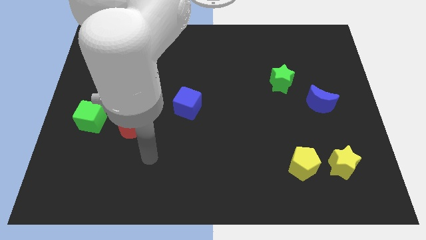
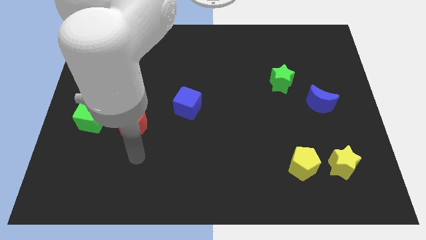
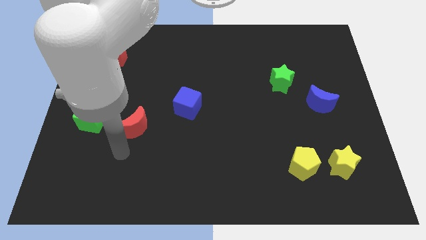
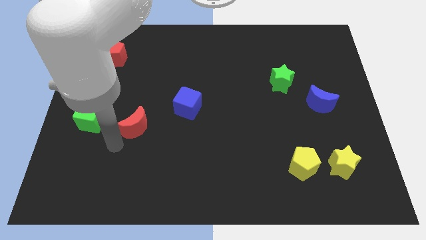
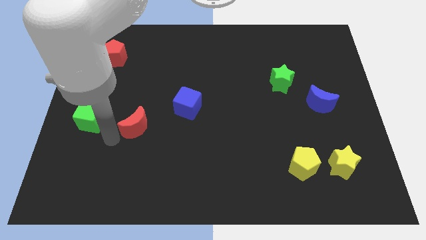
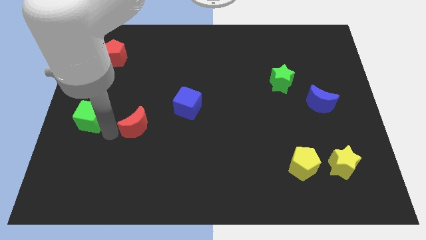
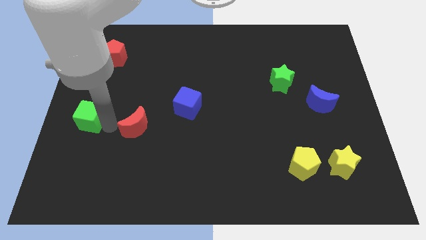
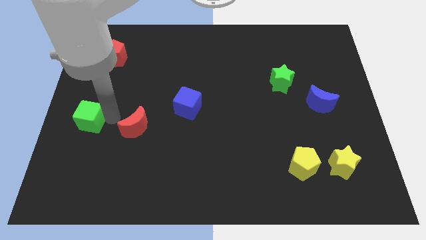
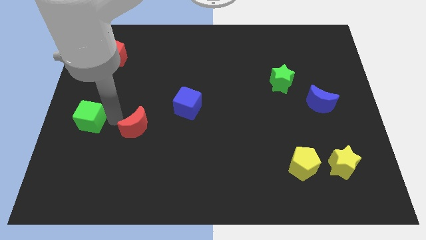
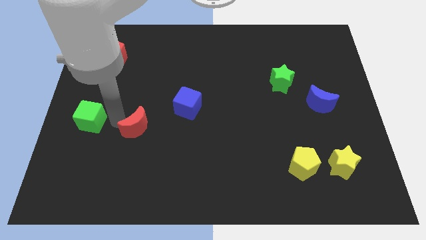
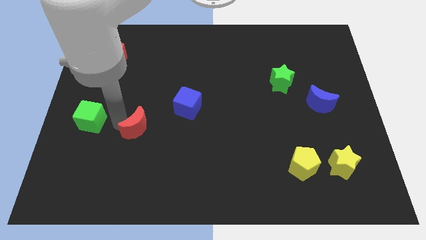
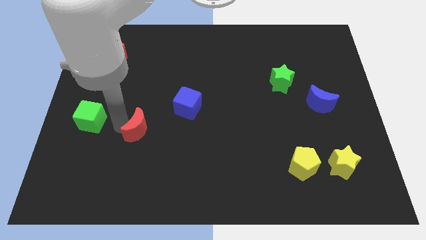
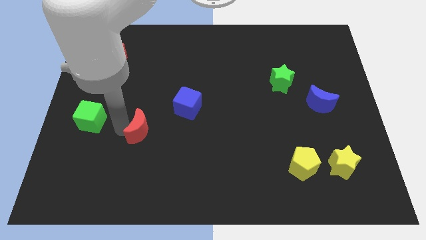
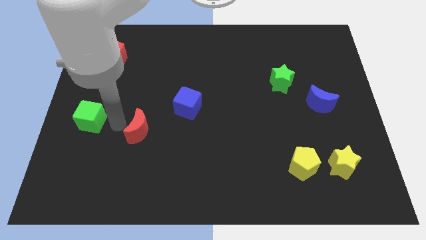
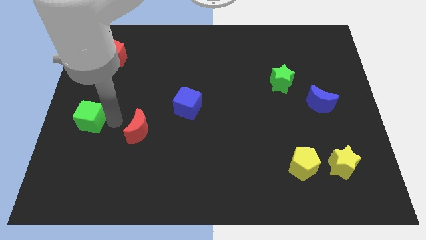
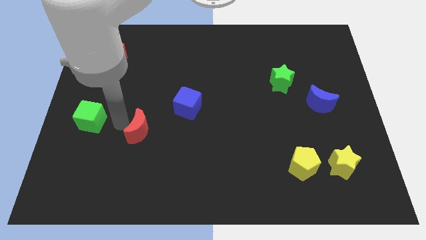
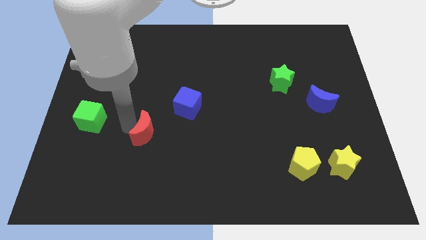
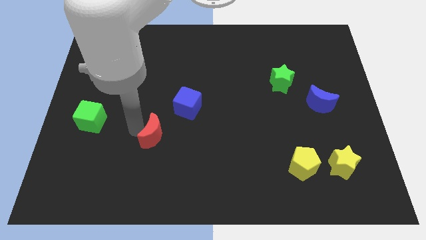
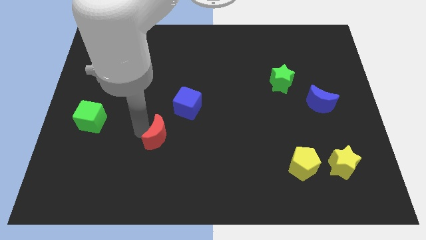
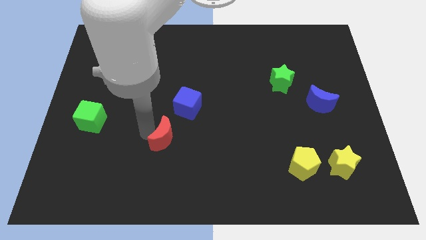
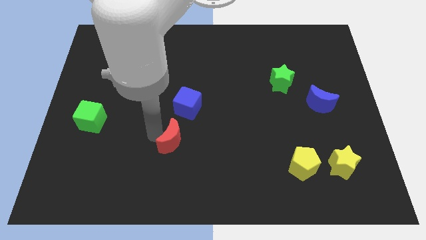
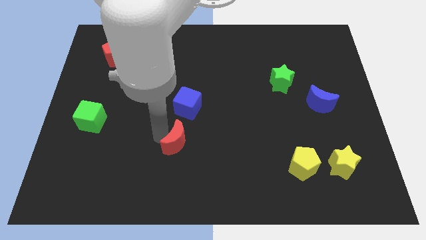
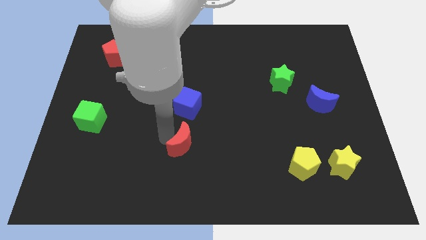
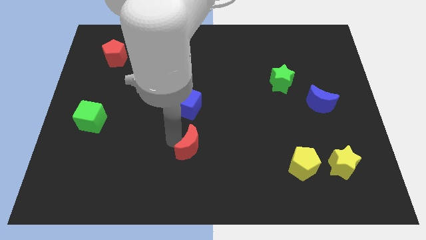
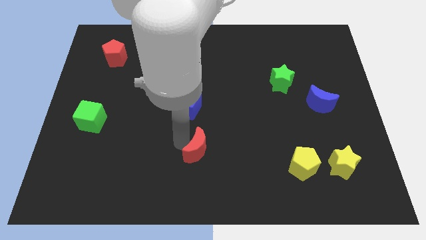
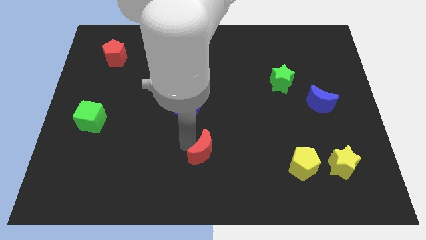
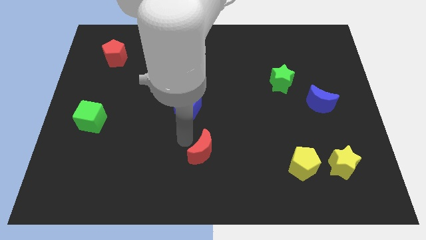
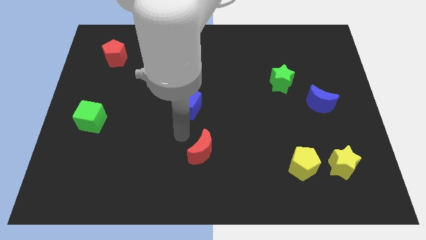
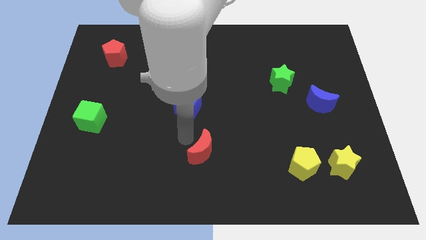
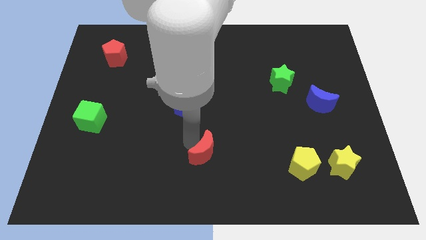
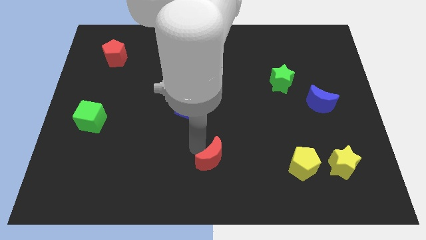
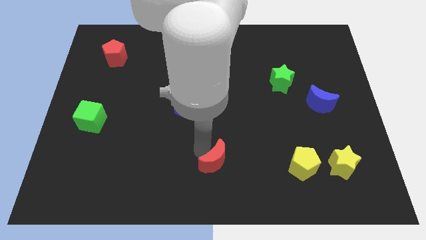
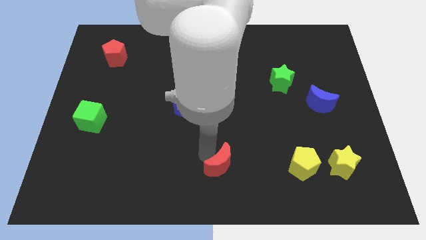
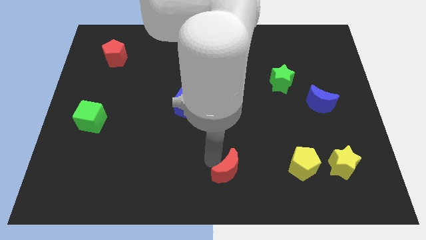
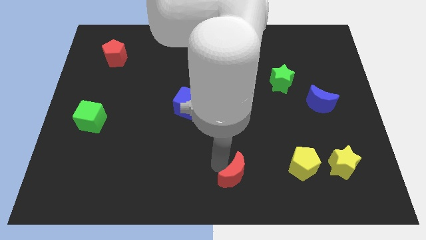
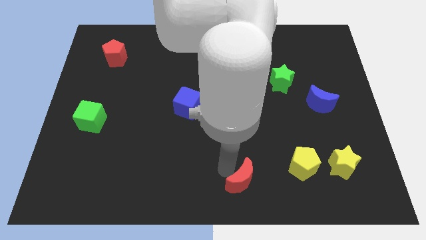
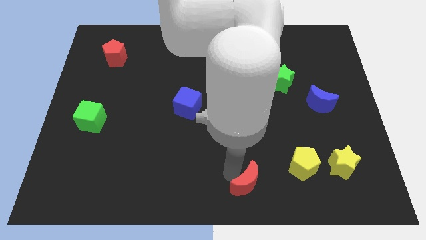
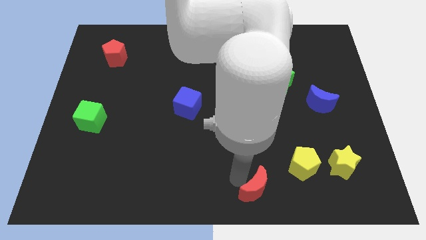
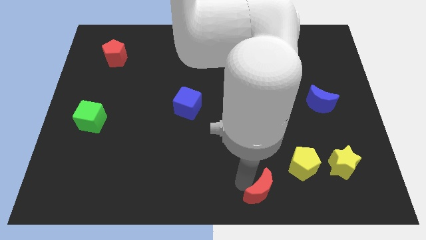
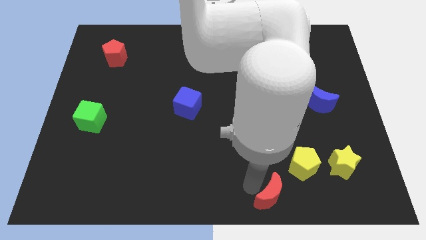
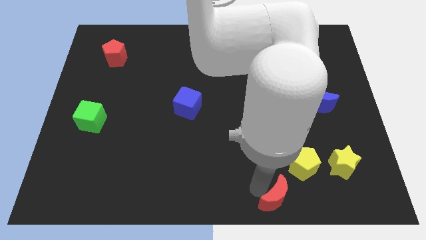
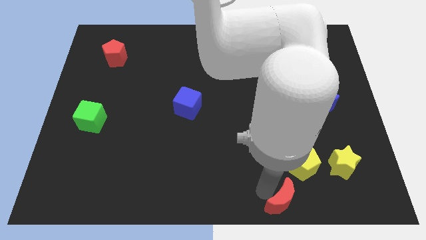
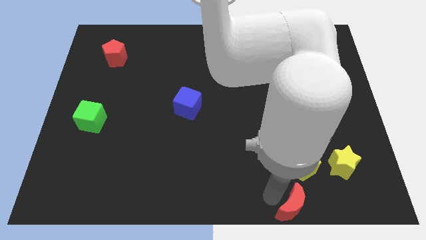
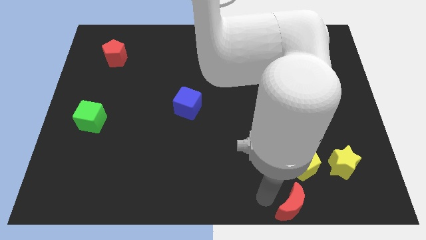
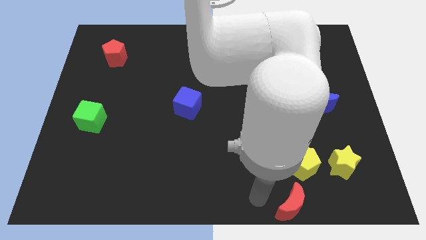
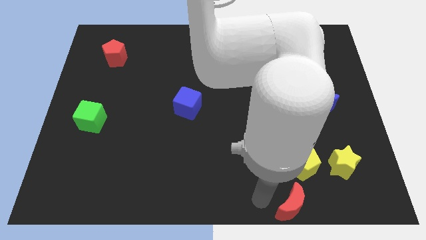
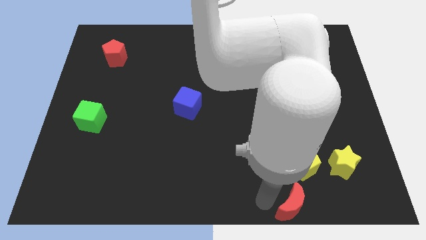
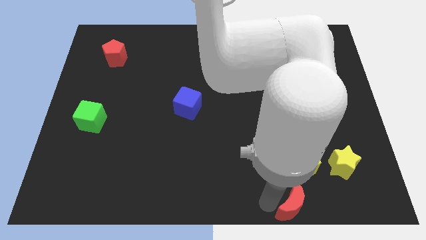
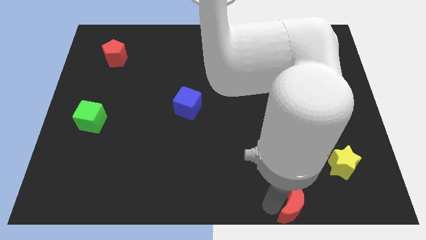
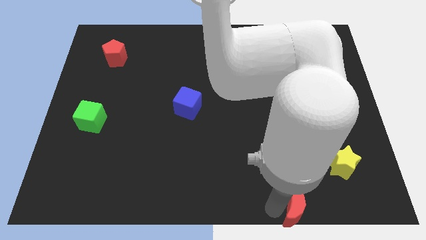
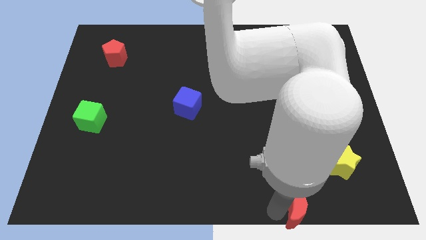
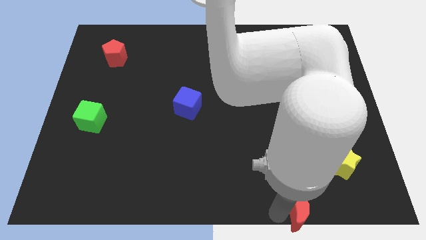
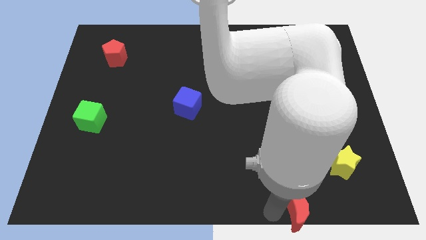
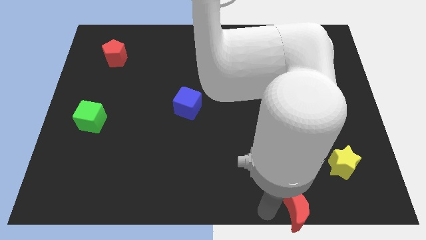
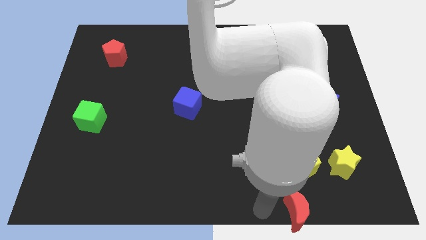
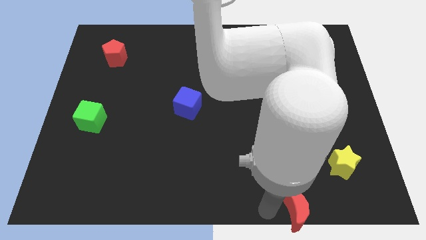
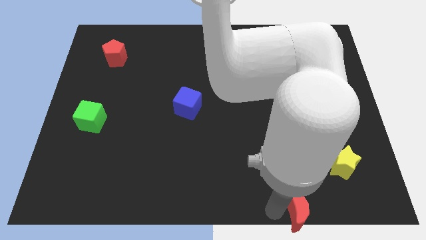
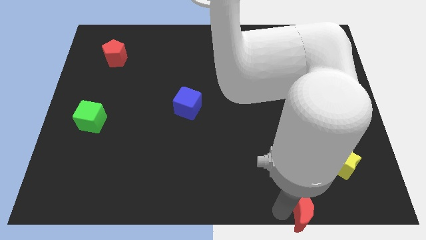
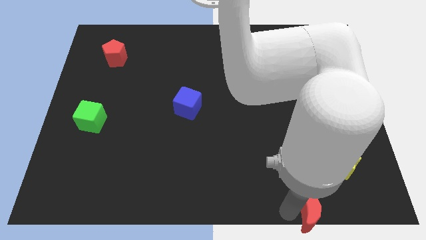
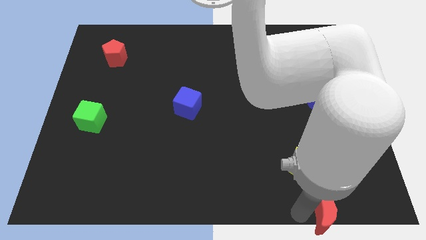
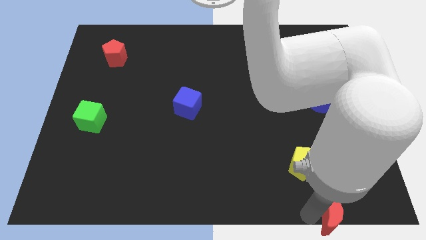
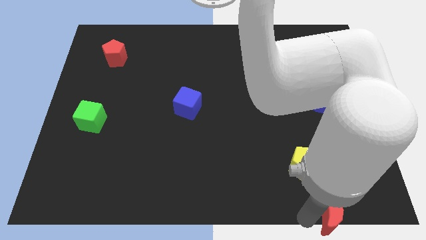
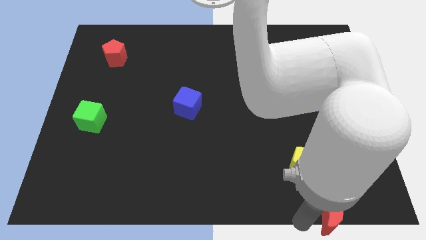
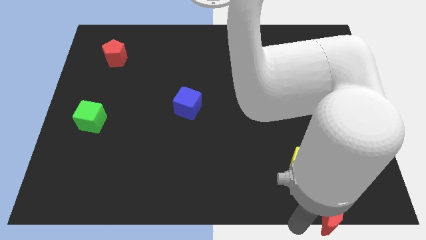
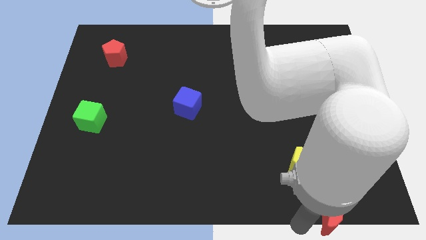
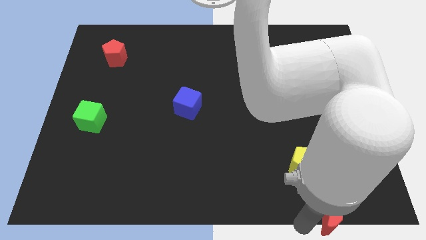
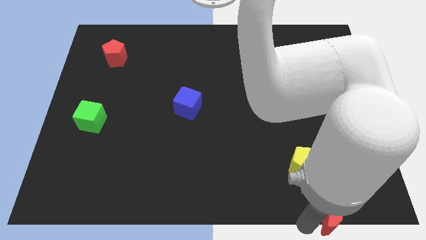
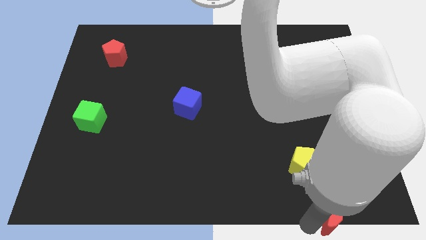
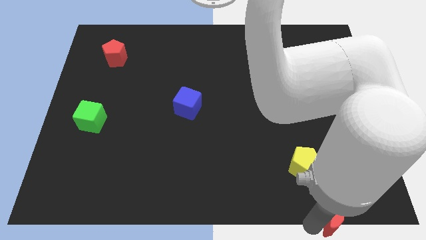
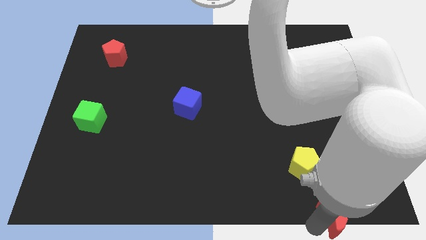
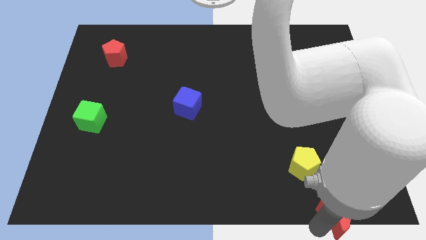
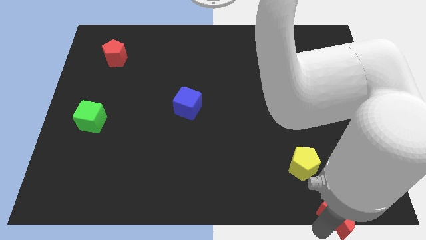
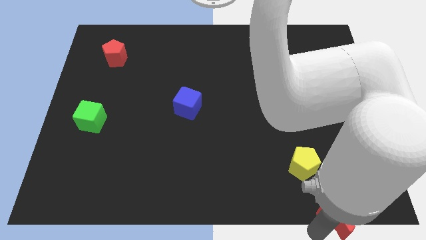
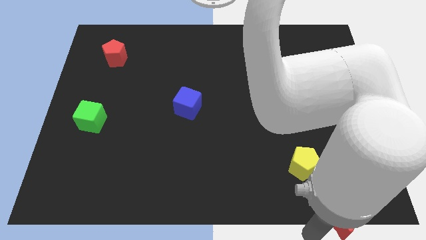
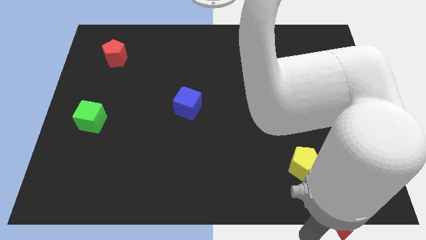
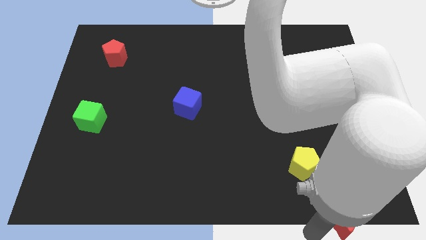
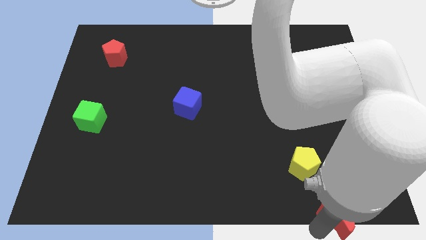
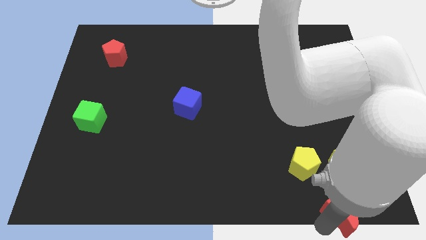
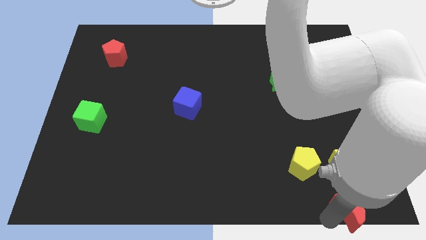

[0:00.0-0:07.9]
slide the red moon to the lower right corner
